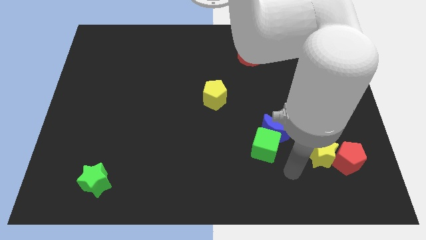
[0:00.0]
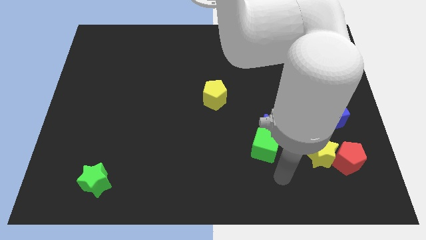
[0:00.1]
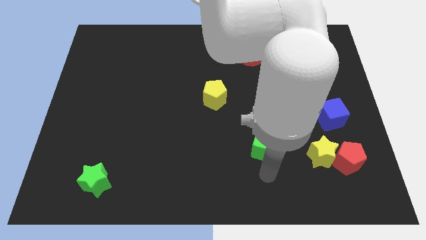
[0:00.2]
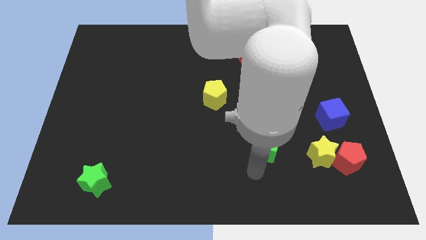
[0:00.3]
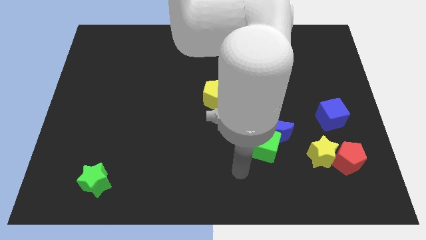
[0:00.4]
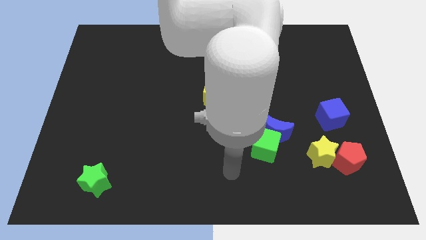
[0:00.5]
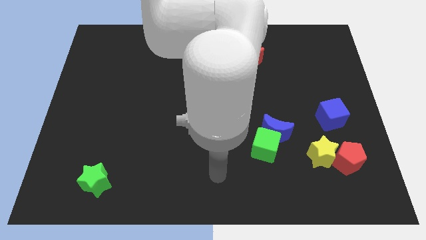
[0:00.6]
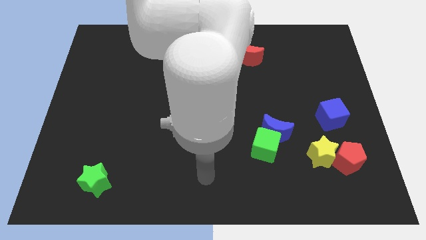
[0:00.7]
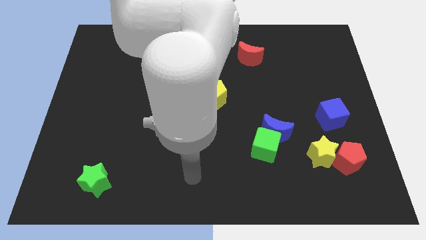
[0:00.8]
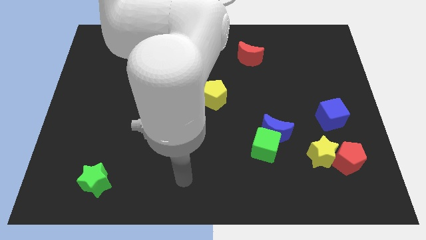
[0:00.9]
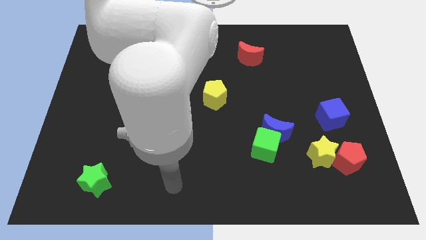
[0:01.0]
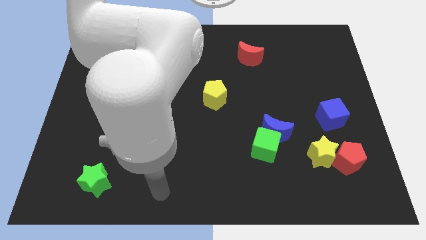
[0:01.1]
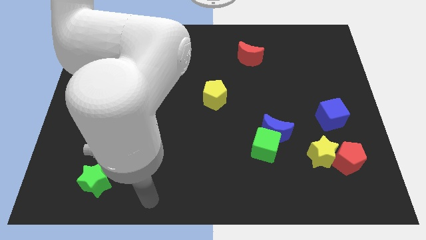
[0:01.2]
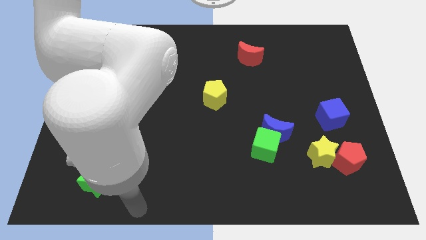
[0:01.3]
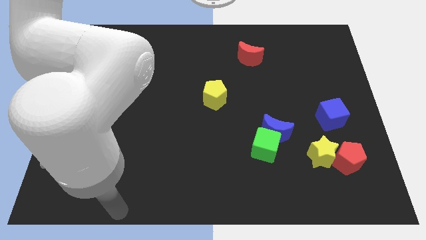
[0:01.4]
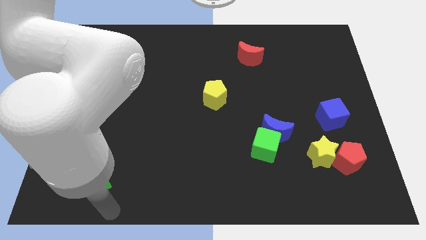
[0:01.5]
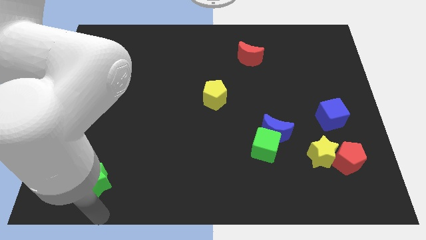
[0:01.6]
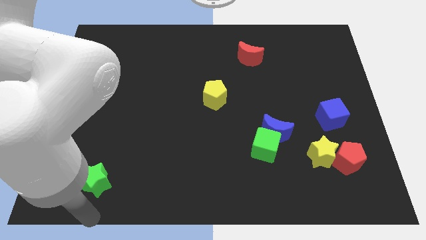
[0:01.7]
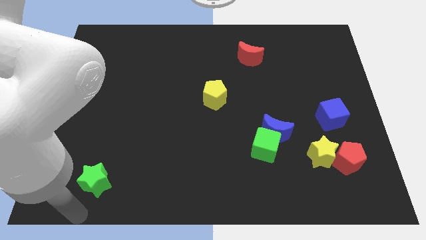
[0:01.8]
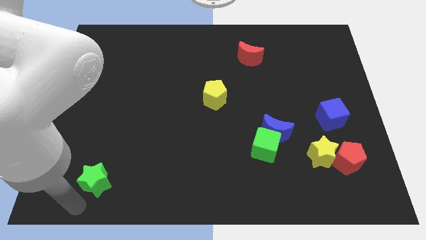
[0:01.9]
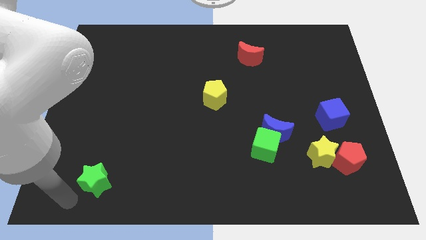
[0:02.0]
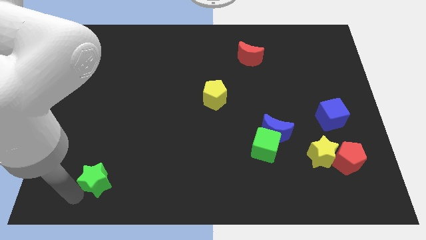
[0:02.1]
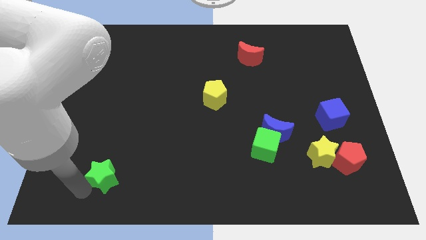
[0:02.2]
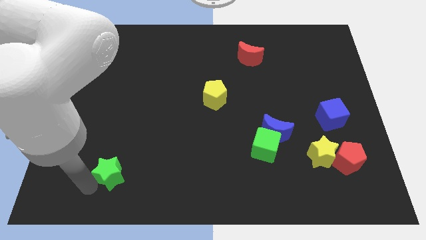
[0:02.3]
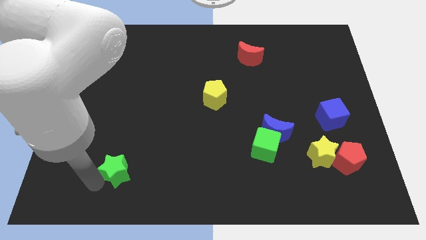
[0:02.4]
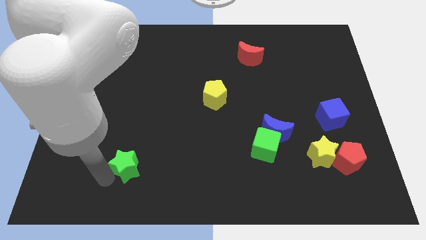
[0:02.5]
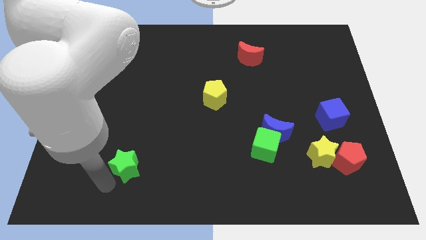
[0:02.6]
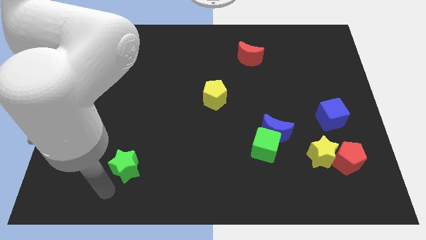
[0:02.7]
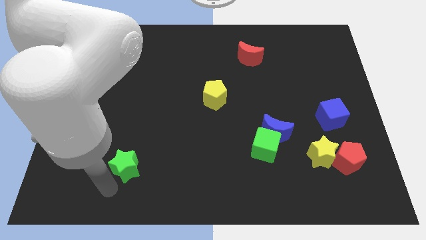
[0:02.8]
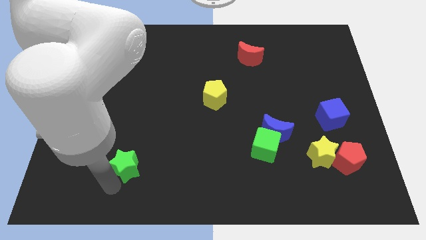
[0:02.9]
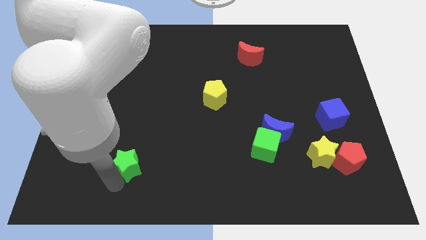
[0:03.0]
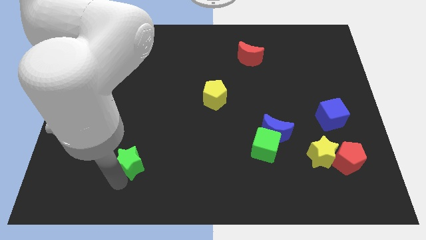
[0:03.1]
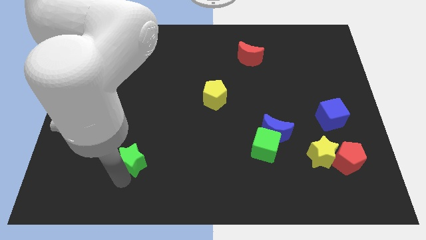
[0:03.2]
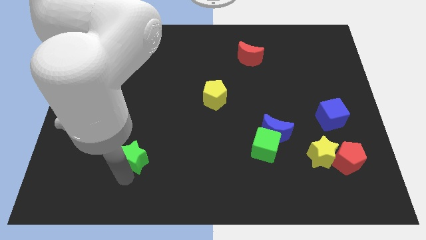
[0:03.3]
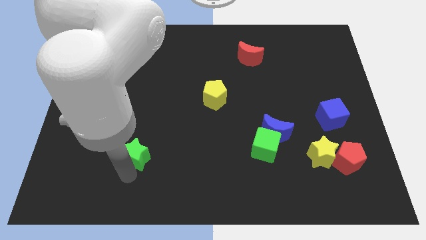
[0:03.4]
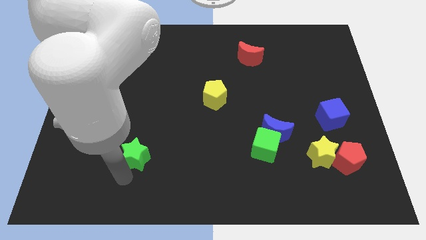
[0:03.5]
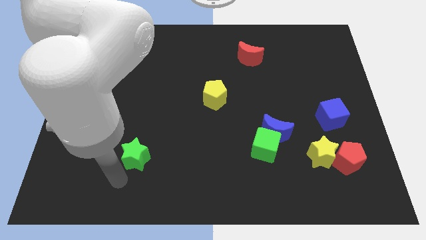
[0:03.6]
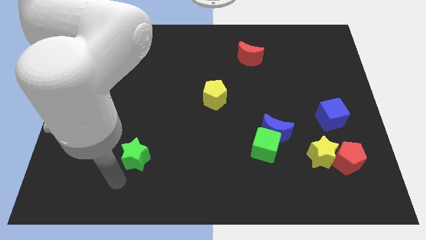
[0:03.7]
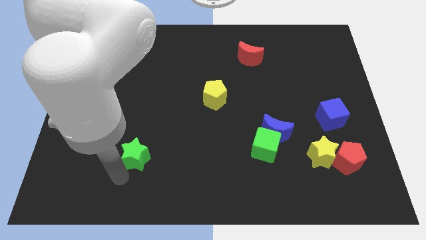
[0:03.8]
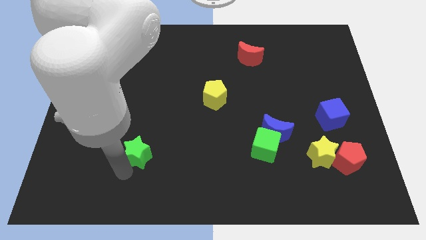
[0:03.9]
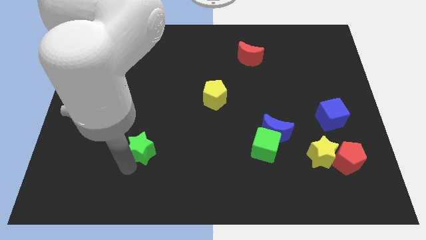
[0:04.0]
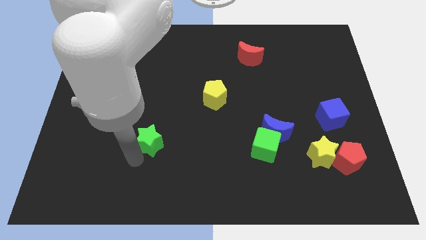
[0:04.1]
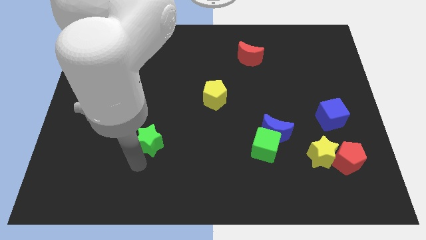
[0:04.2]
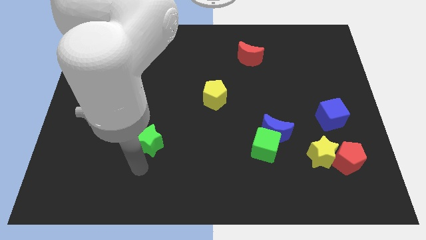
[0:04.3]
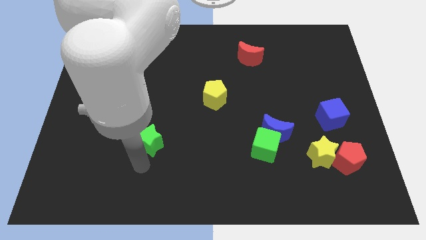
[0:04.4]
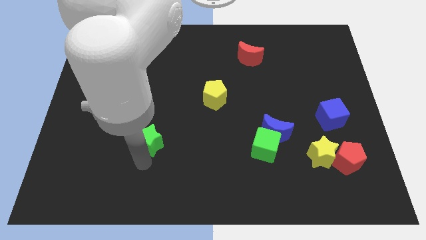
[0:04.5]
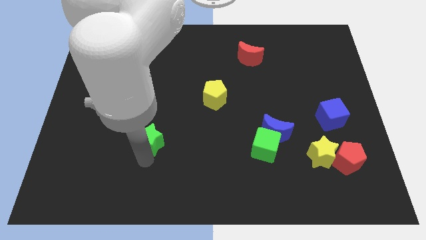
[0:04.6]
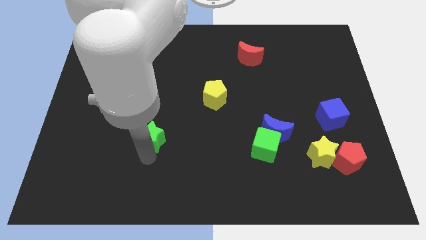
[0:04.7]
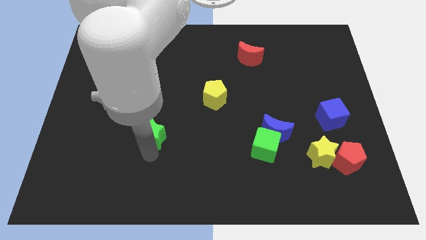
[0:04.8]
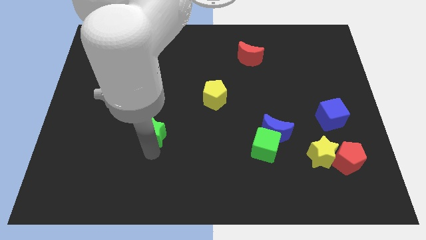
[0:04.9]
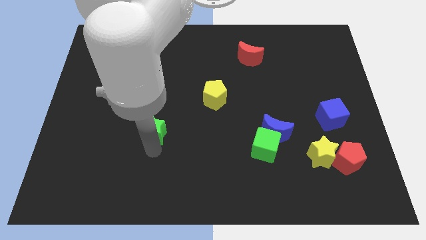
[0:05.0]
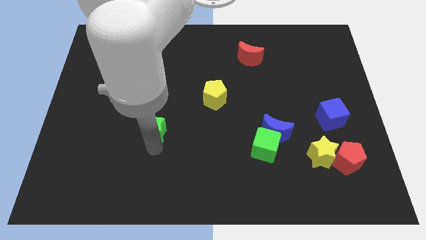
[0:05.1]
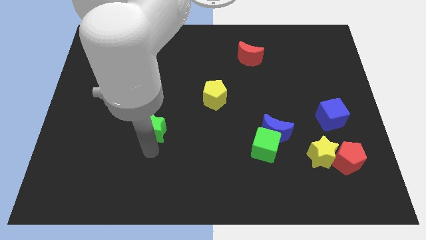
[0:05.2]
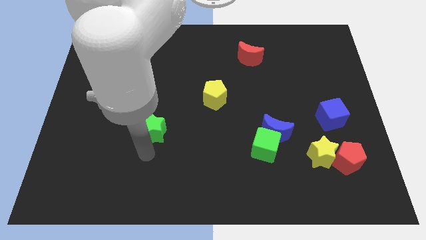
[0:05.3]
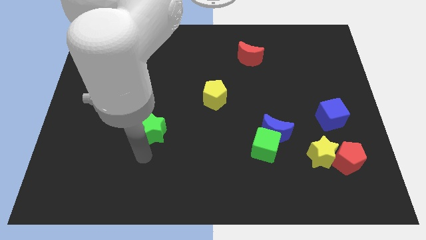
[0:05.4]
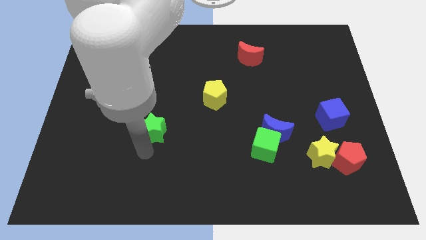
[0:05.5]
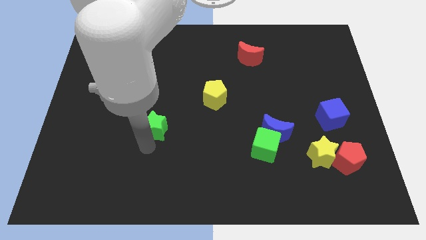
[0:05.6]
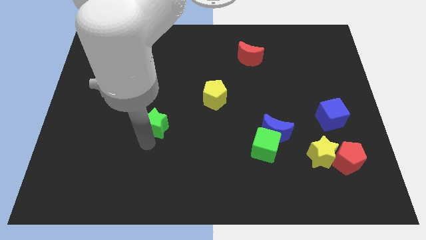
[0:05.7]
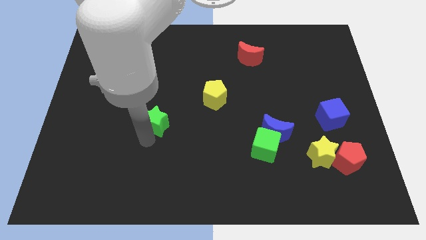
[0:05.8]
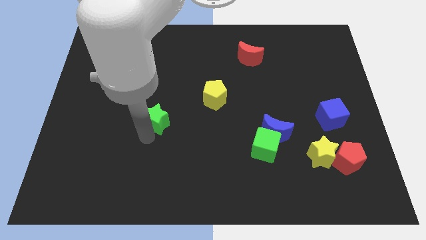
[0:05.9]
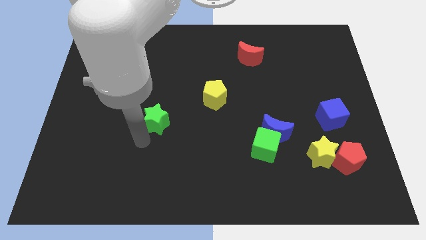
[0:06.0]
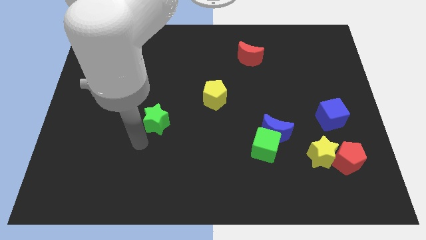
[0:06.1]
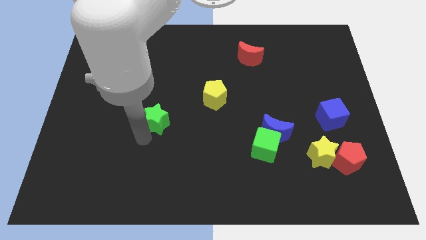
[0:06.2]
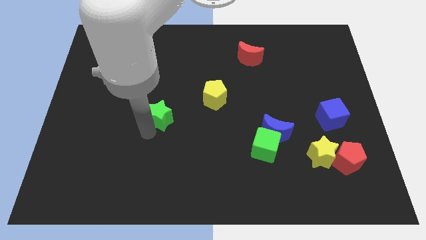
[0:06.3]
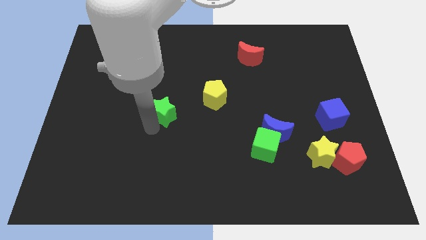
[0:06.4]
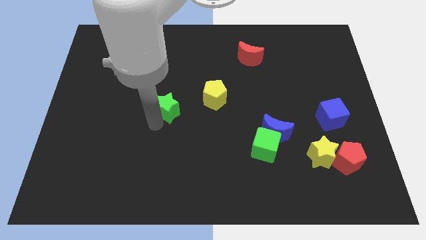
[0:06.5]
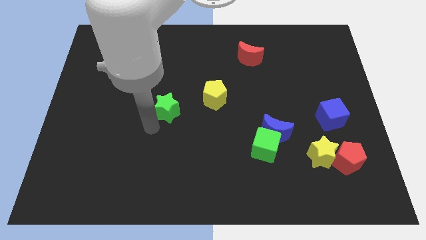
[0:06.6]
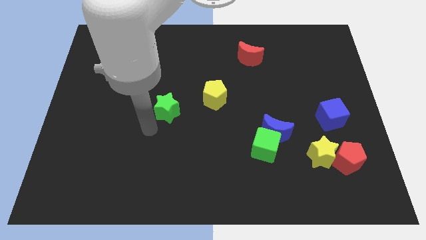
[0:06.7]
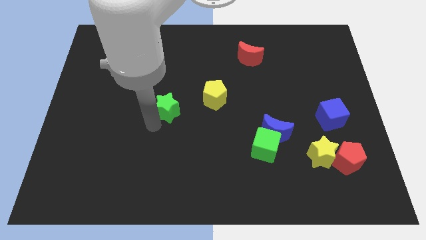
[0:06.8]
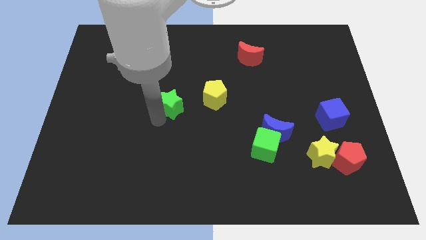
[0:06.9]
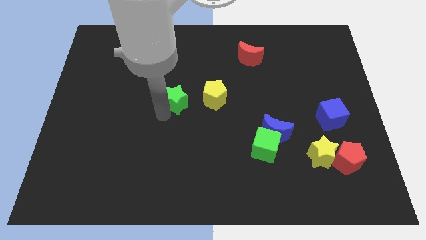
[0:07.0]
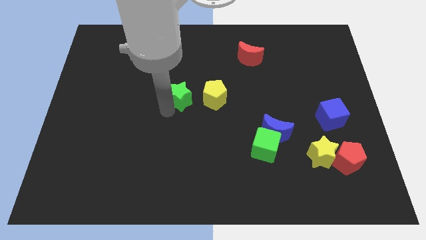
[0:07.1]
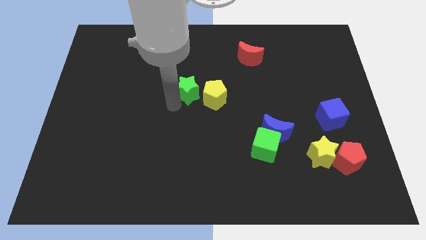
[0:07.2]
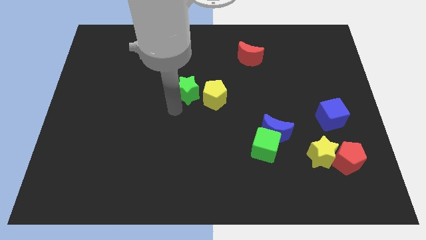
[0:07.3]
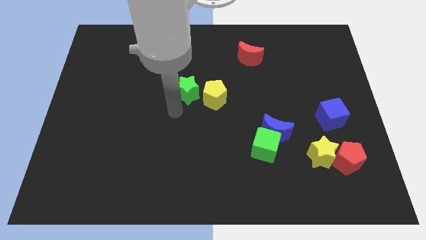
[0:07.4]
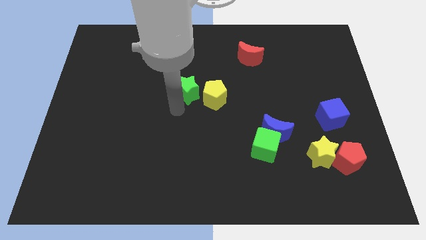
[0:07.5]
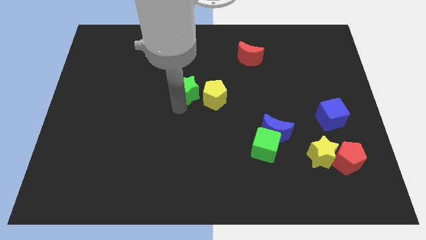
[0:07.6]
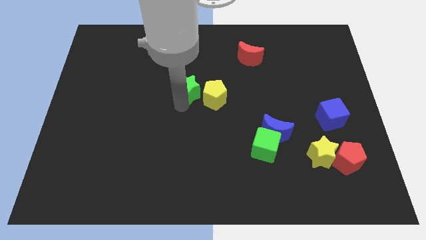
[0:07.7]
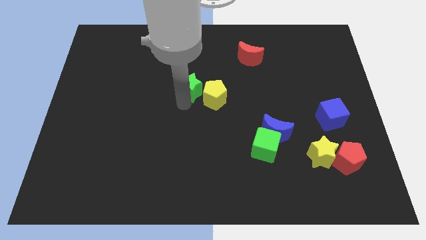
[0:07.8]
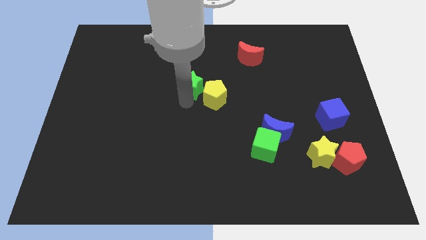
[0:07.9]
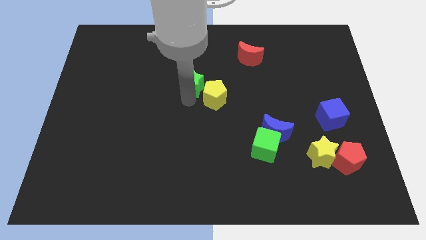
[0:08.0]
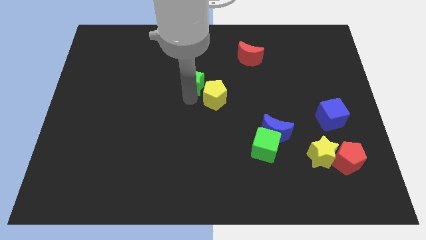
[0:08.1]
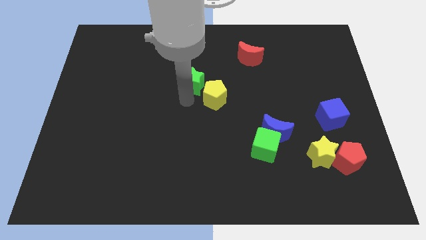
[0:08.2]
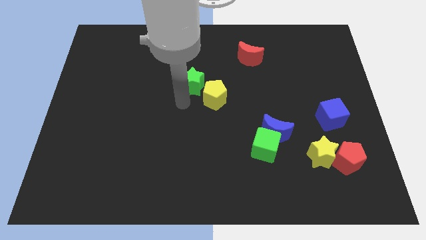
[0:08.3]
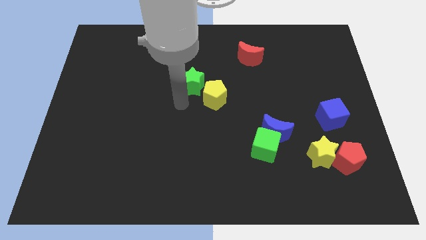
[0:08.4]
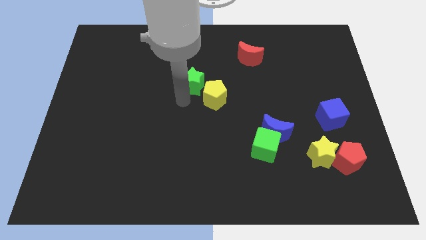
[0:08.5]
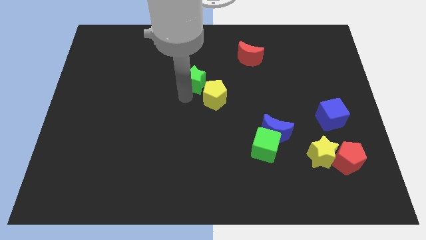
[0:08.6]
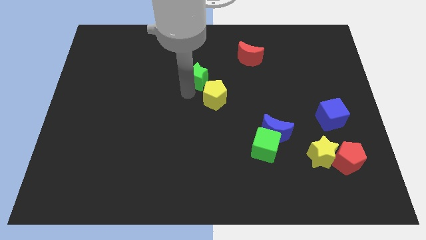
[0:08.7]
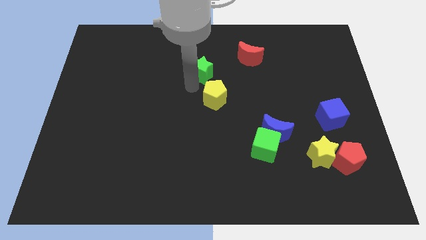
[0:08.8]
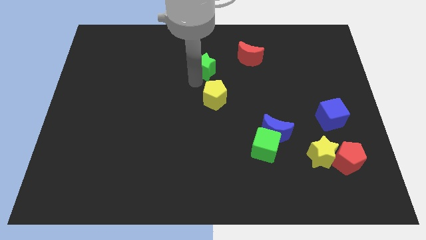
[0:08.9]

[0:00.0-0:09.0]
move the green star left of the red moon
